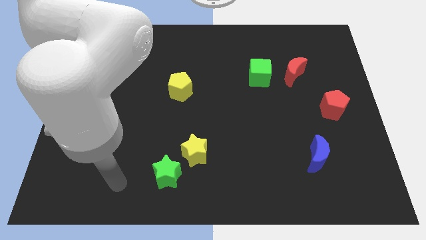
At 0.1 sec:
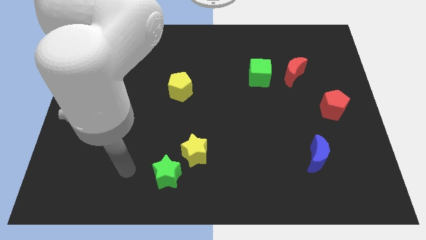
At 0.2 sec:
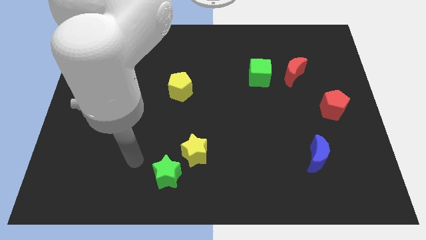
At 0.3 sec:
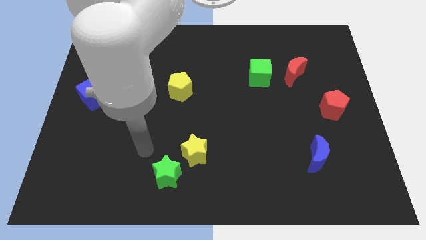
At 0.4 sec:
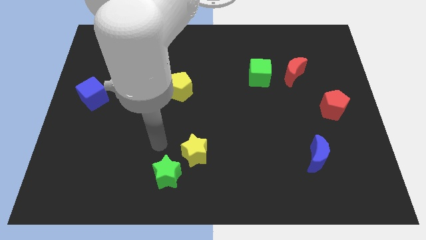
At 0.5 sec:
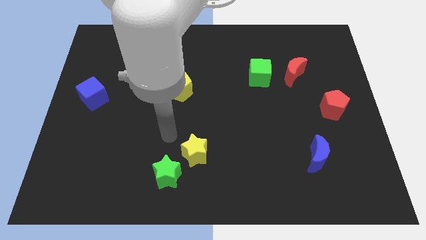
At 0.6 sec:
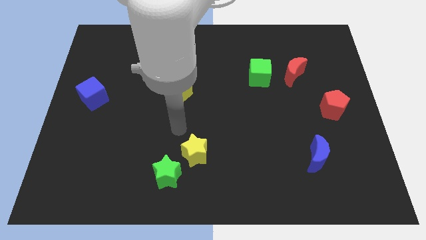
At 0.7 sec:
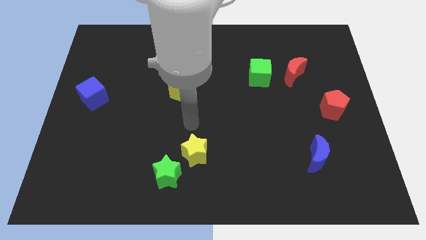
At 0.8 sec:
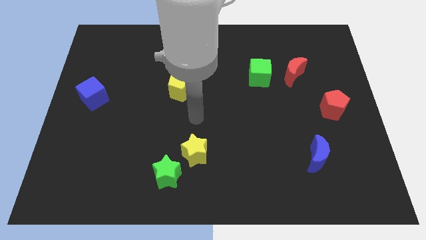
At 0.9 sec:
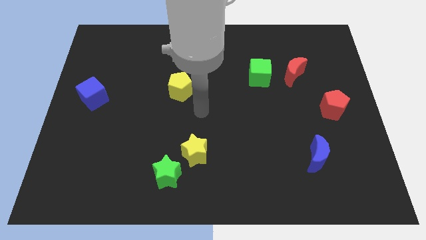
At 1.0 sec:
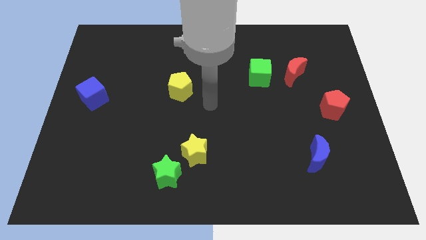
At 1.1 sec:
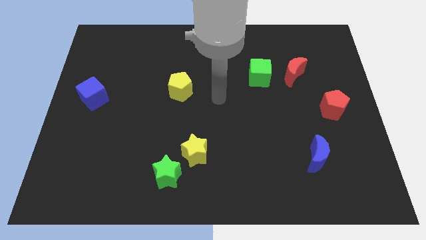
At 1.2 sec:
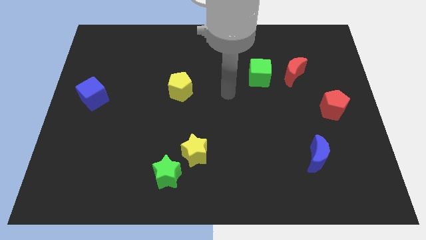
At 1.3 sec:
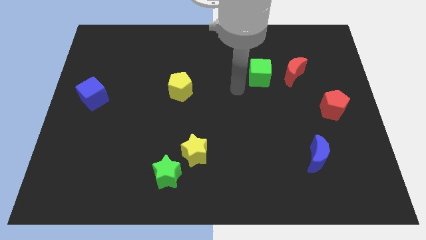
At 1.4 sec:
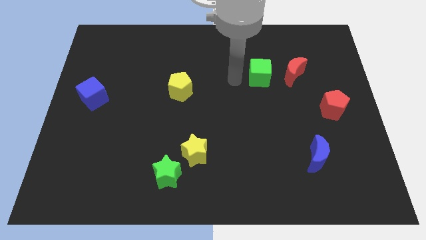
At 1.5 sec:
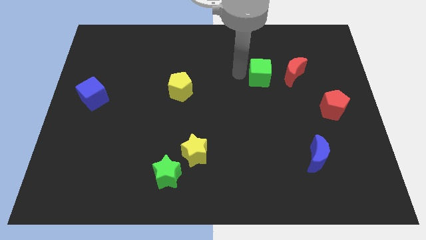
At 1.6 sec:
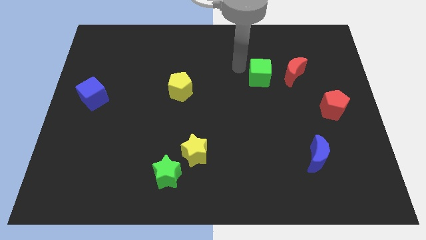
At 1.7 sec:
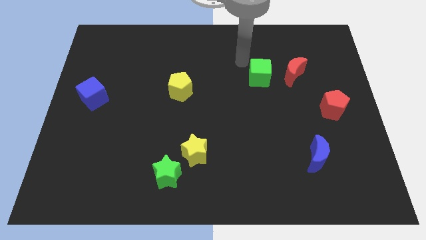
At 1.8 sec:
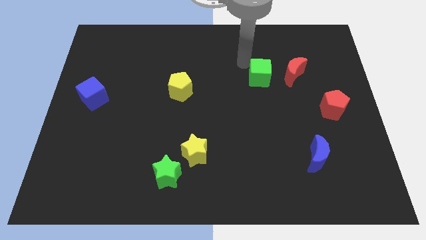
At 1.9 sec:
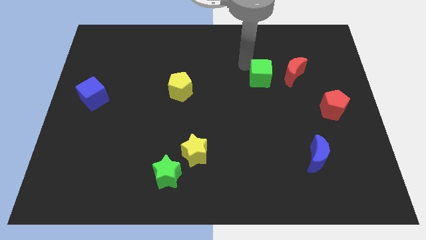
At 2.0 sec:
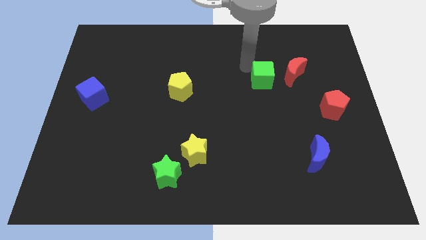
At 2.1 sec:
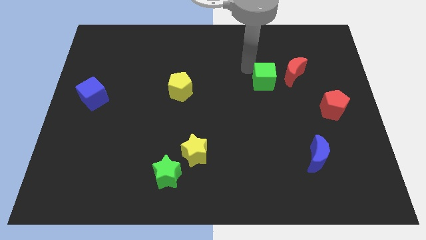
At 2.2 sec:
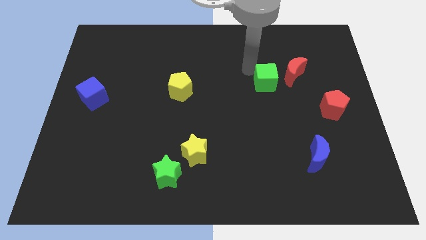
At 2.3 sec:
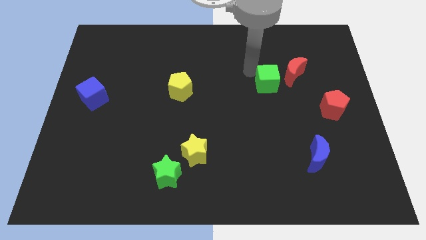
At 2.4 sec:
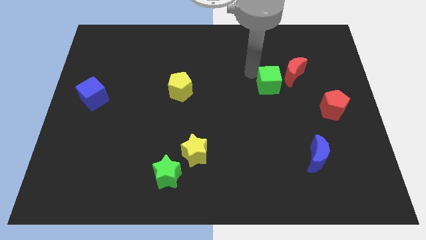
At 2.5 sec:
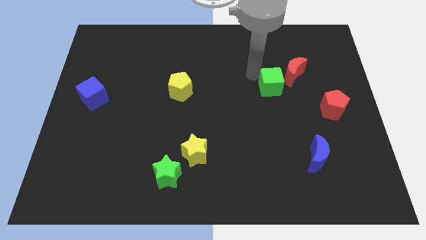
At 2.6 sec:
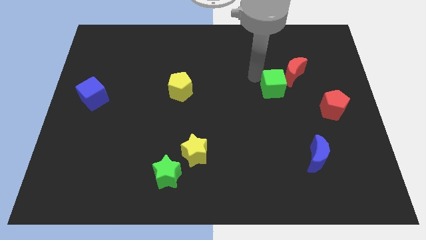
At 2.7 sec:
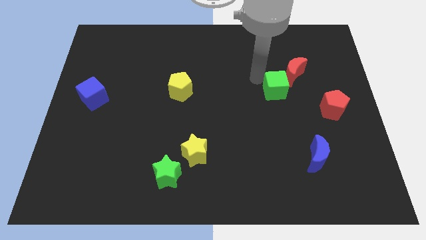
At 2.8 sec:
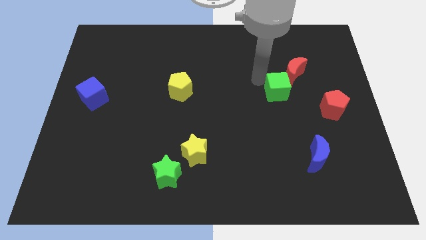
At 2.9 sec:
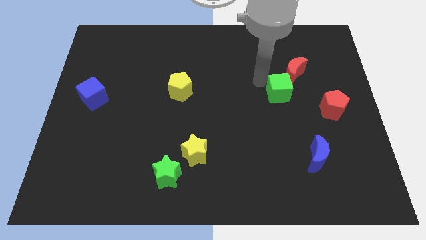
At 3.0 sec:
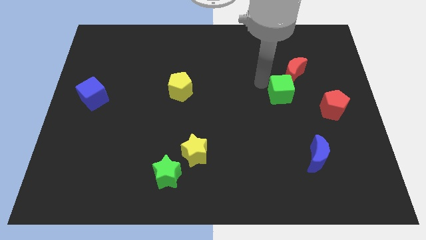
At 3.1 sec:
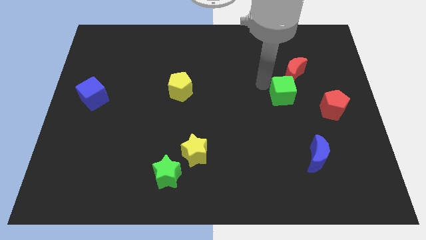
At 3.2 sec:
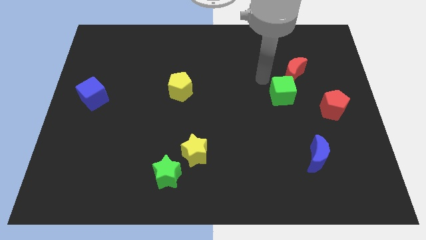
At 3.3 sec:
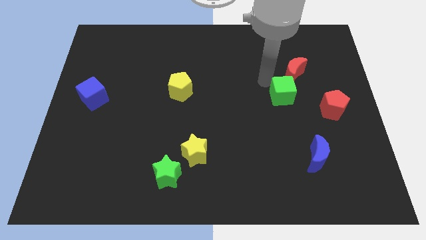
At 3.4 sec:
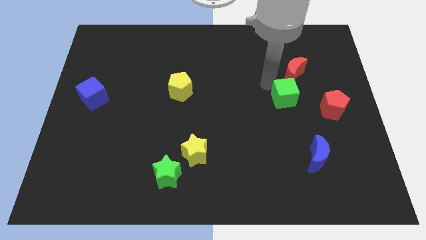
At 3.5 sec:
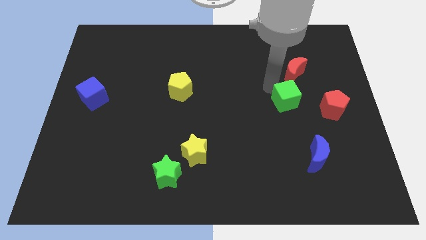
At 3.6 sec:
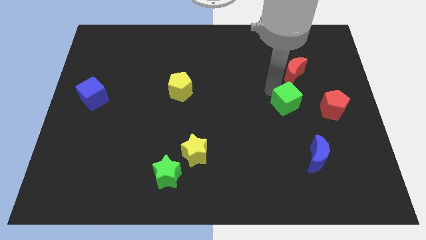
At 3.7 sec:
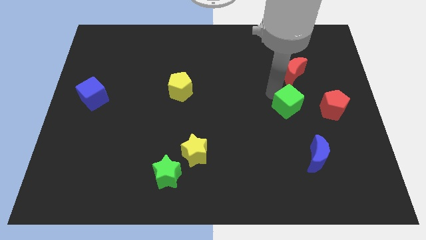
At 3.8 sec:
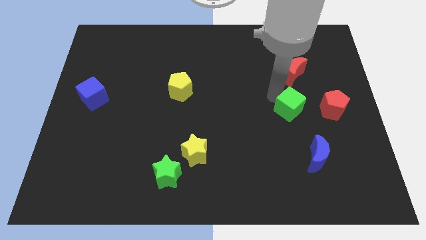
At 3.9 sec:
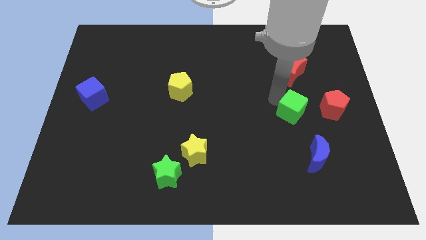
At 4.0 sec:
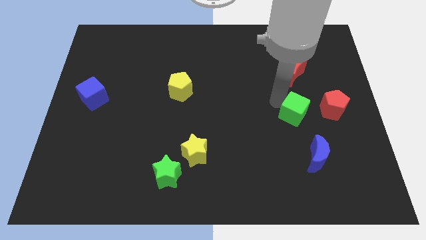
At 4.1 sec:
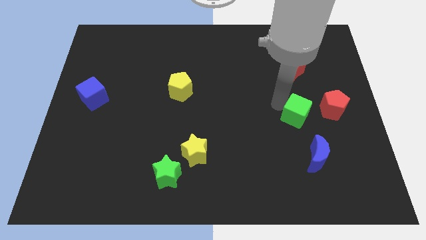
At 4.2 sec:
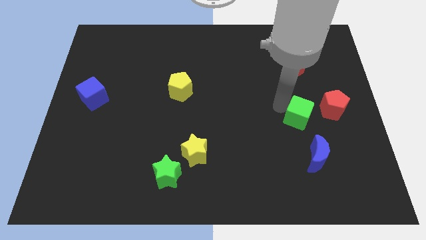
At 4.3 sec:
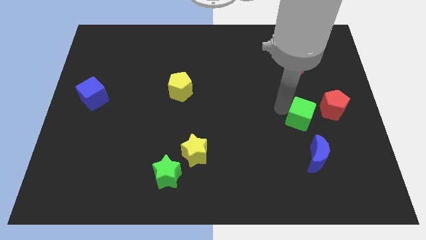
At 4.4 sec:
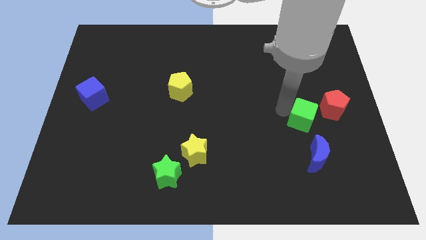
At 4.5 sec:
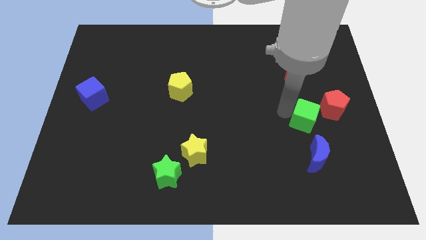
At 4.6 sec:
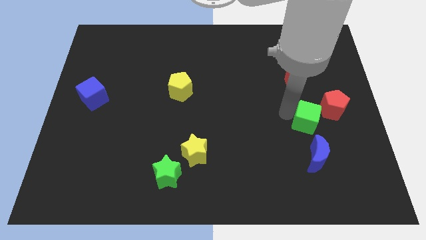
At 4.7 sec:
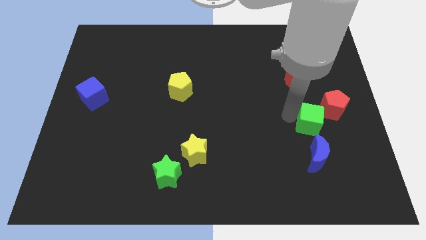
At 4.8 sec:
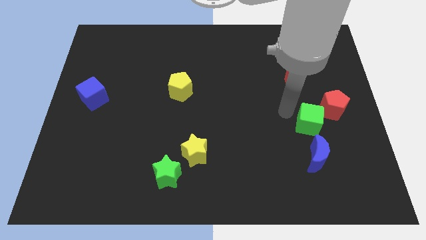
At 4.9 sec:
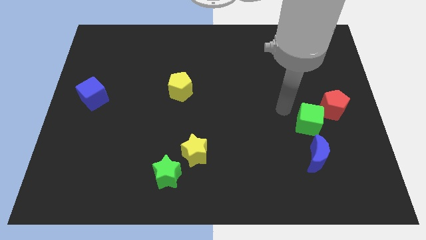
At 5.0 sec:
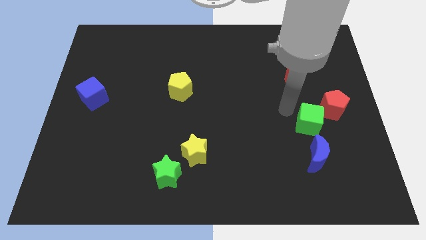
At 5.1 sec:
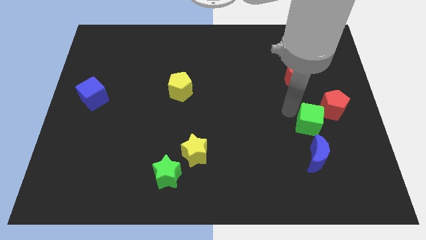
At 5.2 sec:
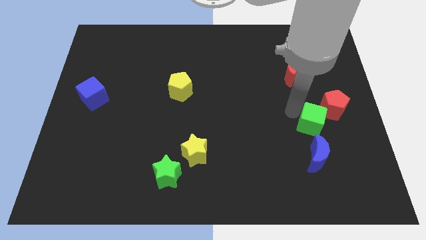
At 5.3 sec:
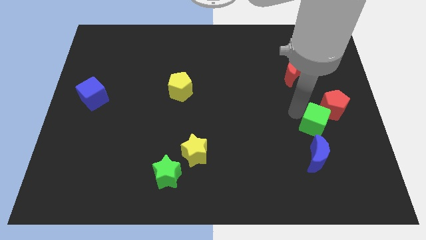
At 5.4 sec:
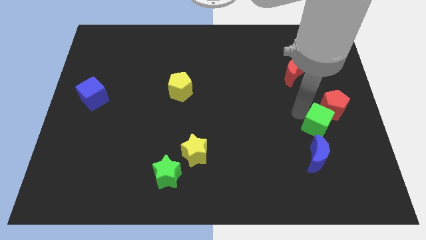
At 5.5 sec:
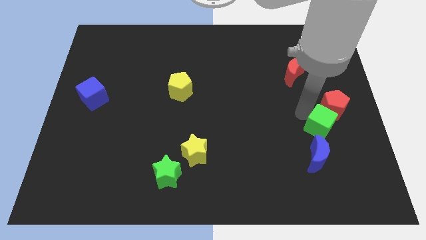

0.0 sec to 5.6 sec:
move the green cube to the top right side of the blue moon

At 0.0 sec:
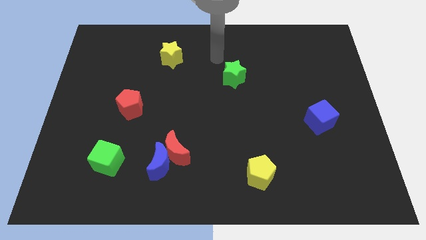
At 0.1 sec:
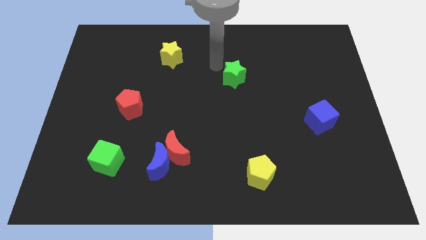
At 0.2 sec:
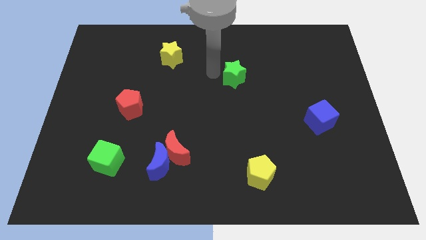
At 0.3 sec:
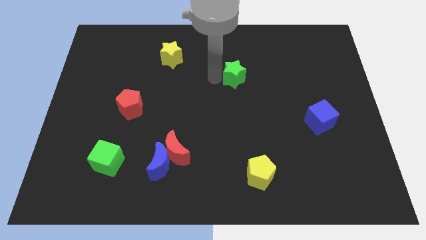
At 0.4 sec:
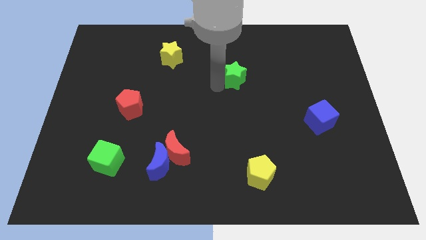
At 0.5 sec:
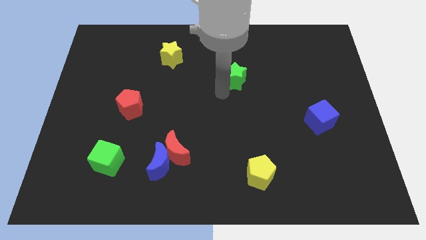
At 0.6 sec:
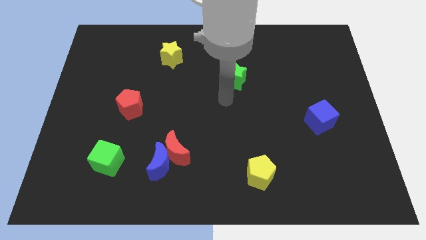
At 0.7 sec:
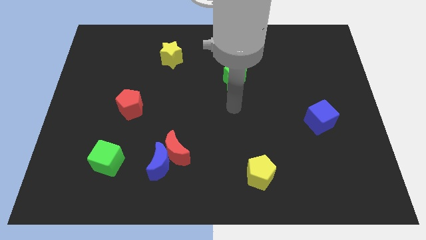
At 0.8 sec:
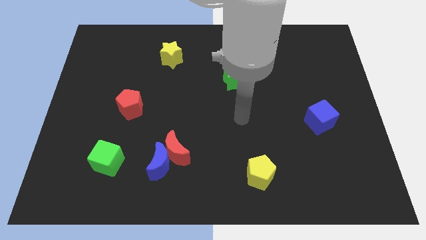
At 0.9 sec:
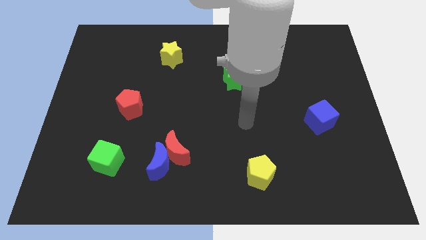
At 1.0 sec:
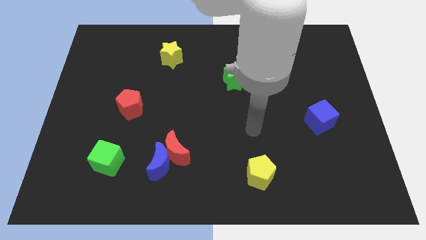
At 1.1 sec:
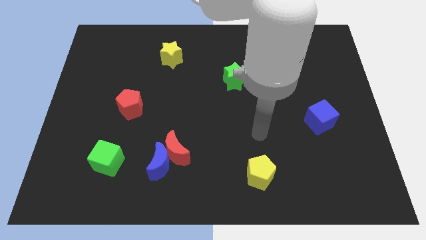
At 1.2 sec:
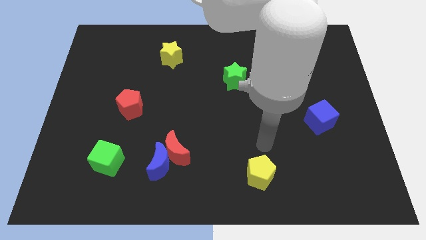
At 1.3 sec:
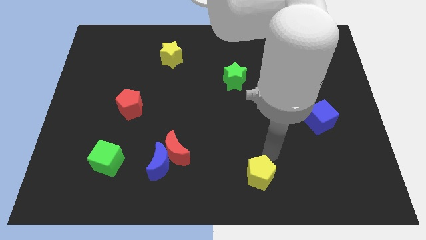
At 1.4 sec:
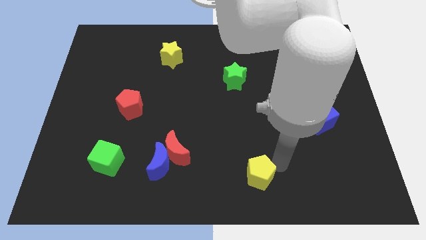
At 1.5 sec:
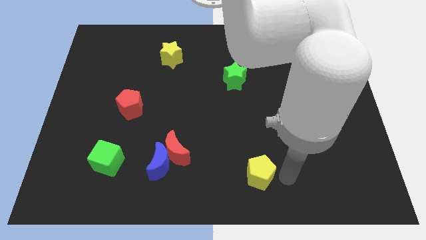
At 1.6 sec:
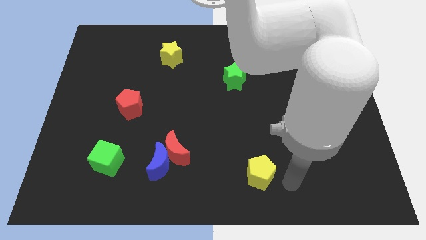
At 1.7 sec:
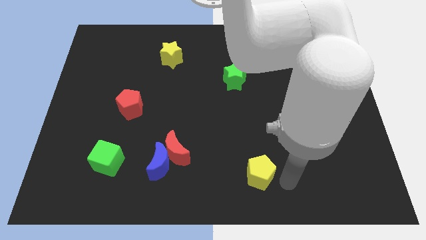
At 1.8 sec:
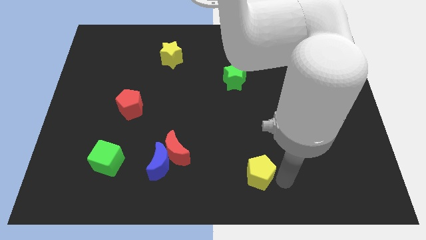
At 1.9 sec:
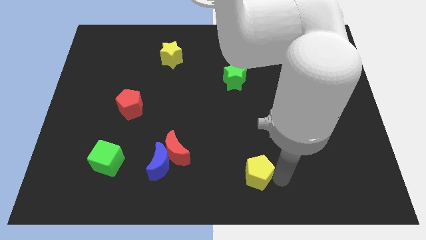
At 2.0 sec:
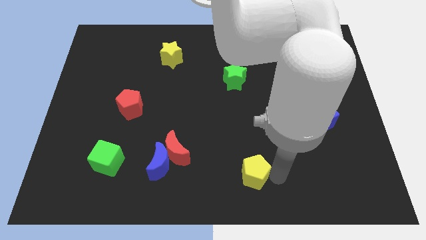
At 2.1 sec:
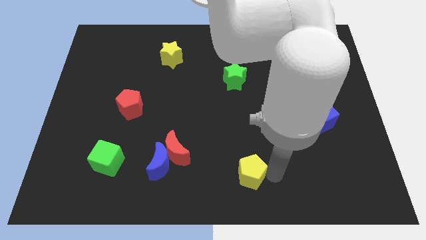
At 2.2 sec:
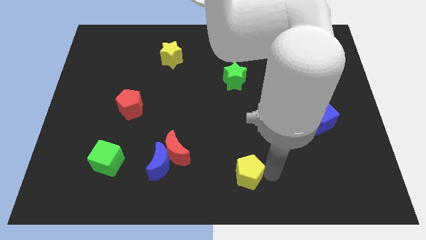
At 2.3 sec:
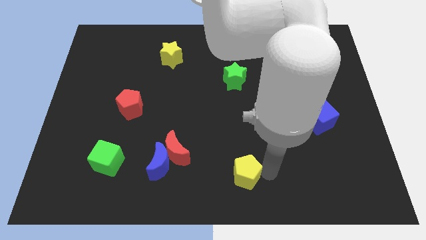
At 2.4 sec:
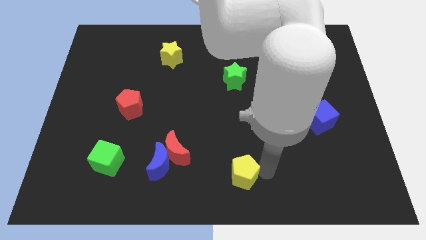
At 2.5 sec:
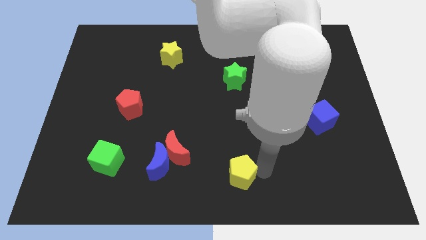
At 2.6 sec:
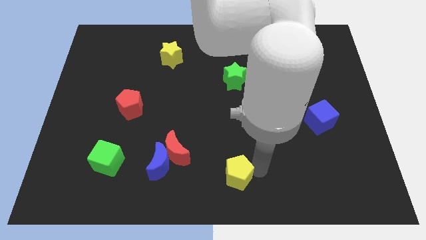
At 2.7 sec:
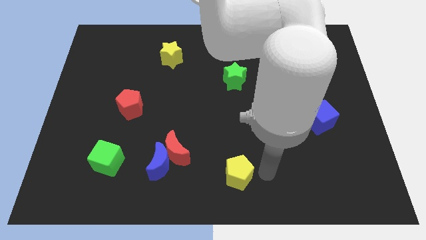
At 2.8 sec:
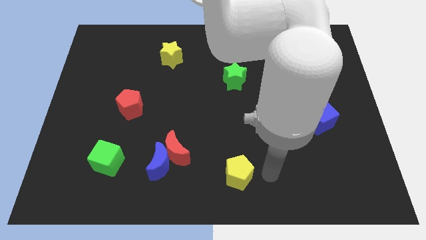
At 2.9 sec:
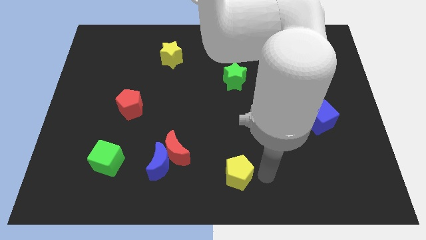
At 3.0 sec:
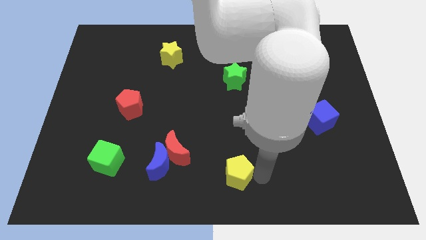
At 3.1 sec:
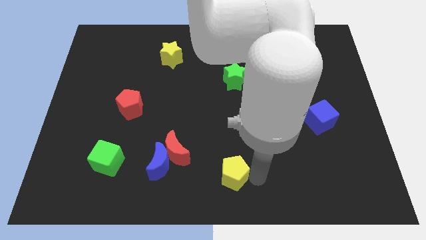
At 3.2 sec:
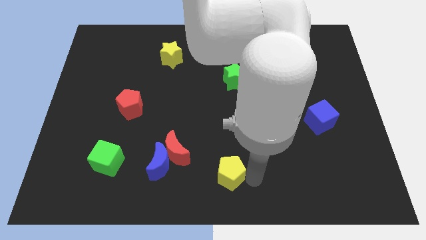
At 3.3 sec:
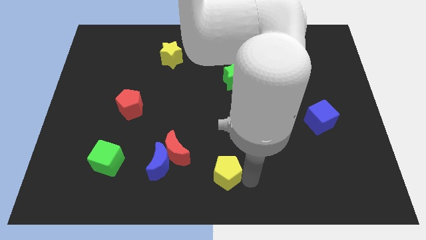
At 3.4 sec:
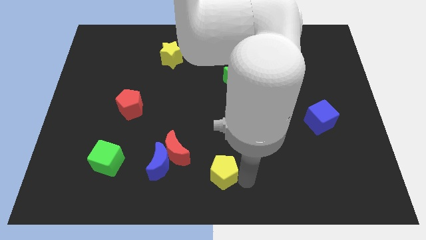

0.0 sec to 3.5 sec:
slide the yellow pentagon to the bottom right of the red moon
